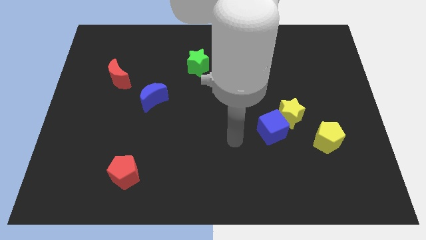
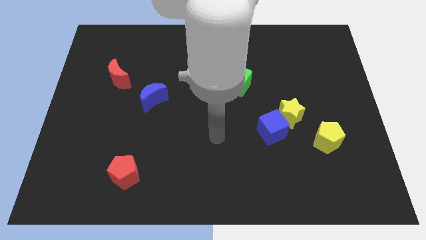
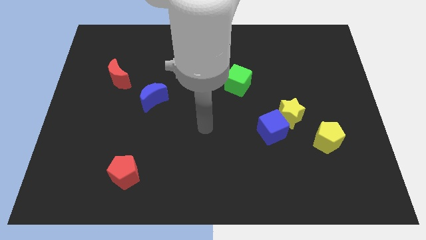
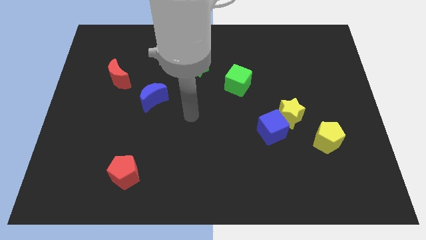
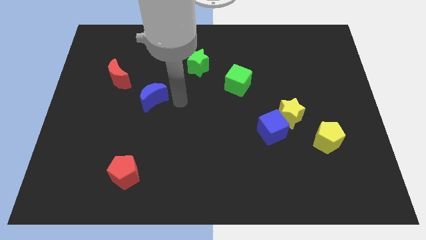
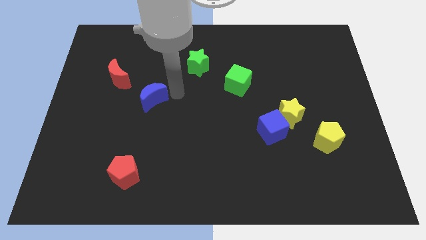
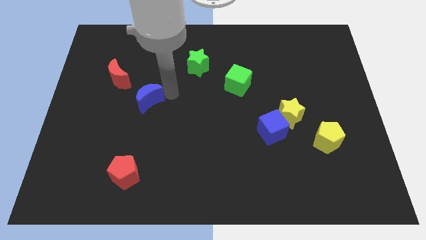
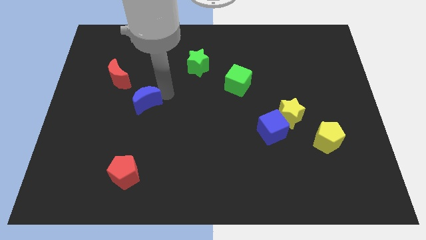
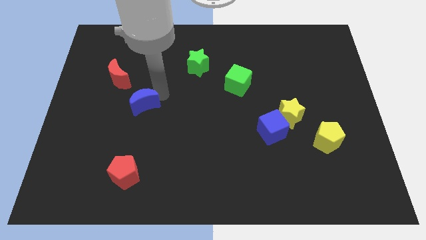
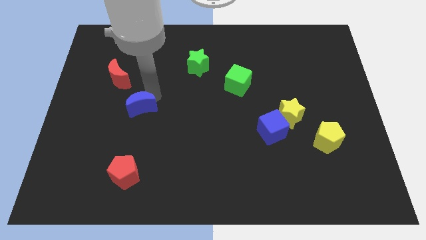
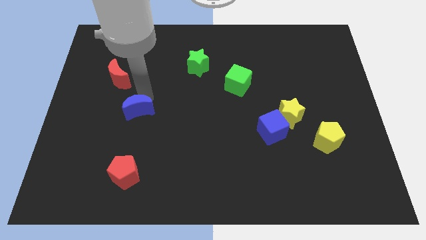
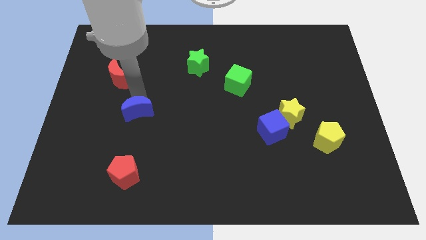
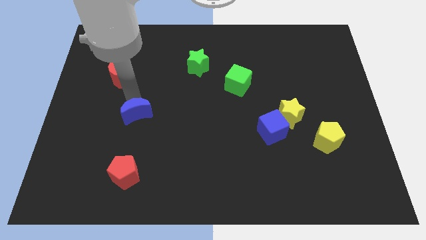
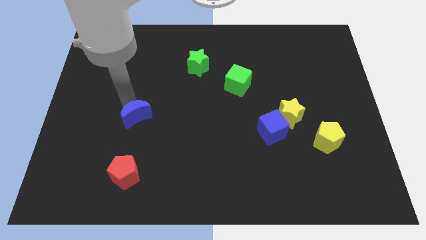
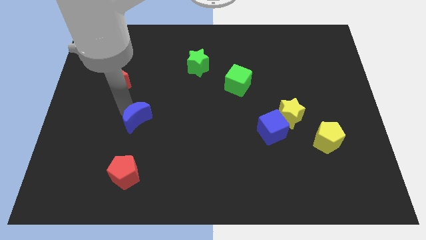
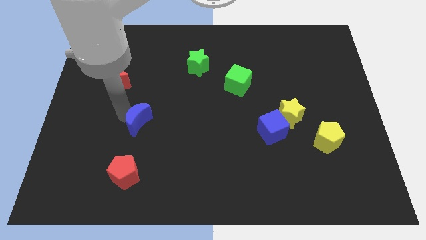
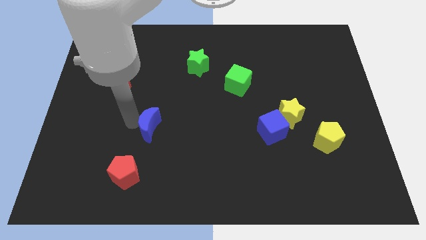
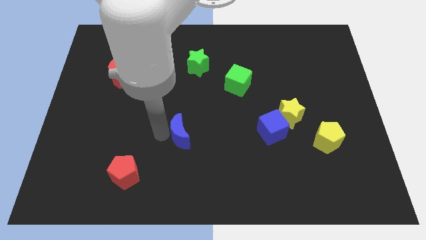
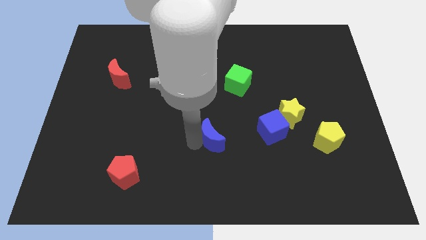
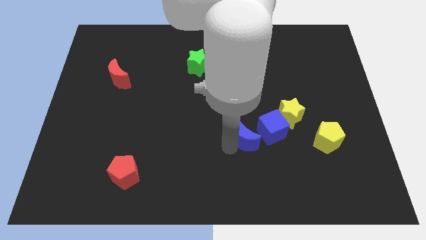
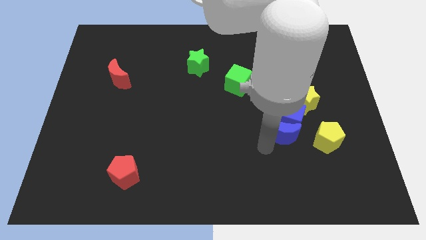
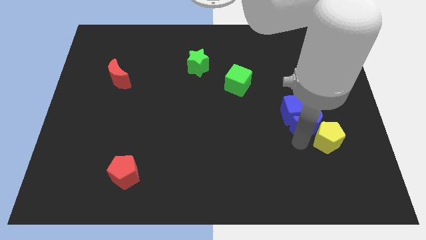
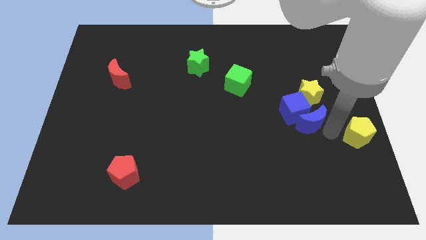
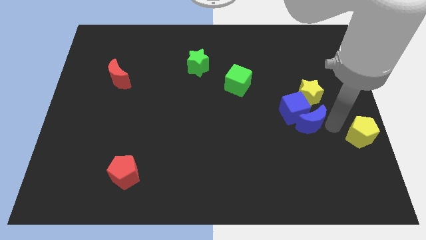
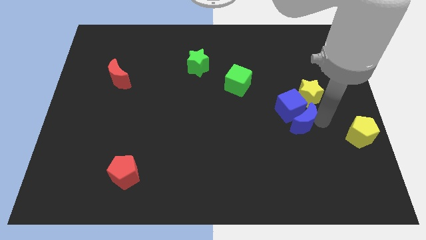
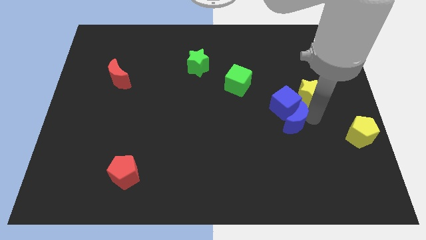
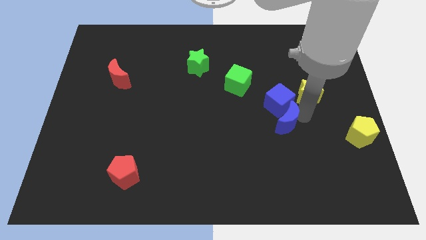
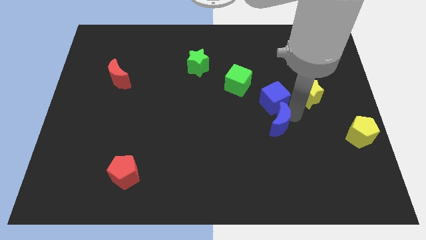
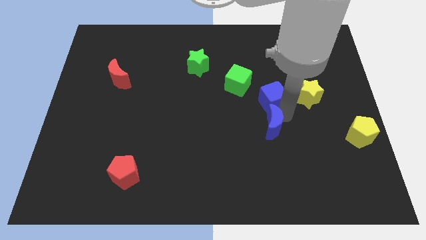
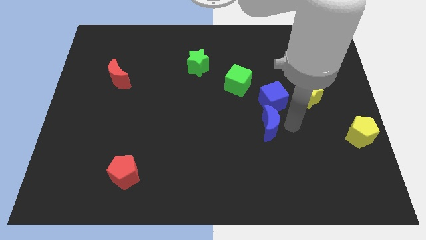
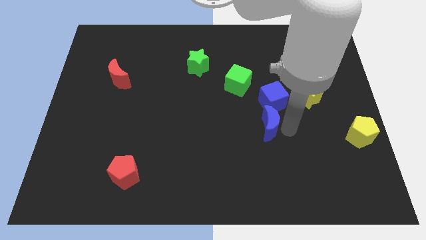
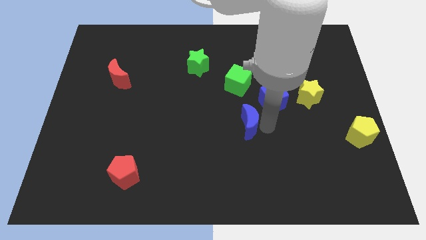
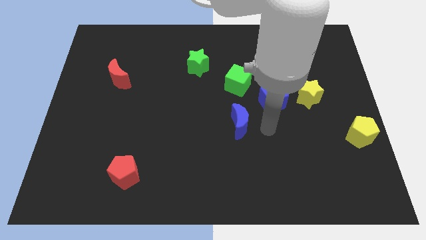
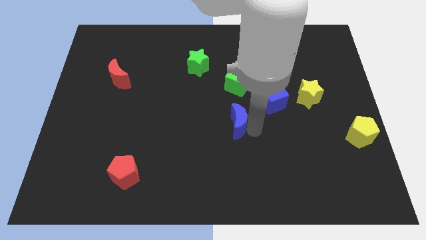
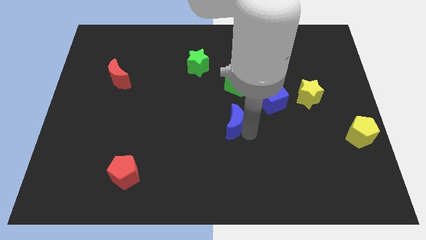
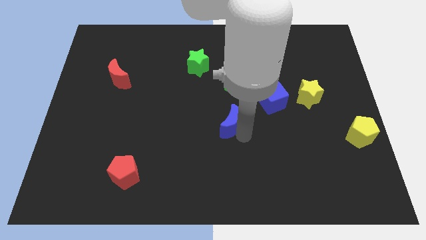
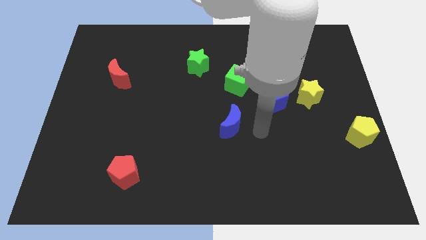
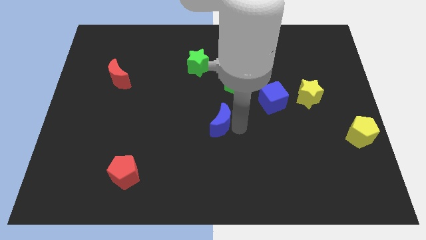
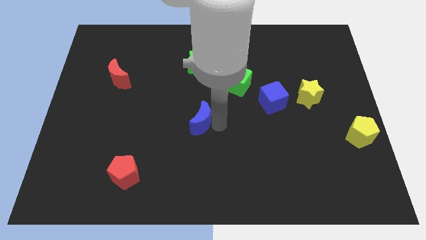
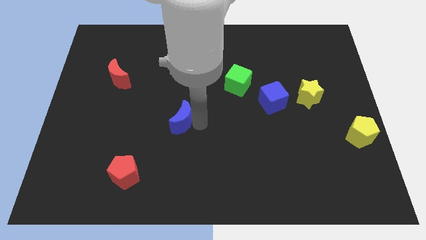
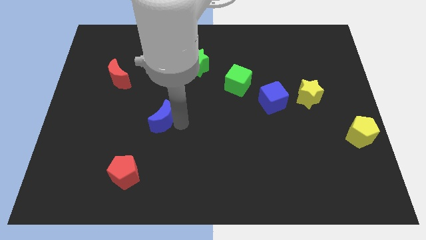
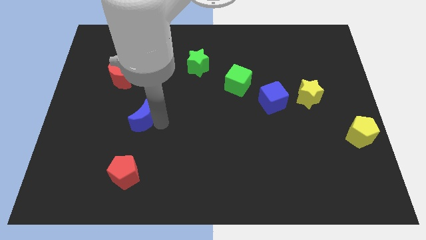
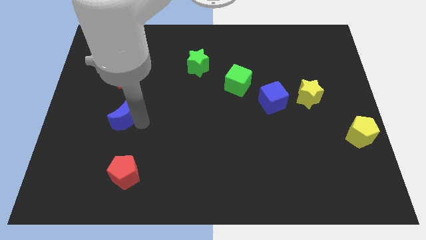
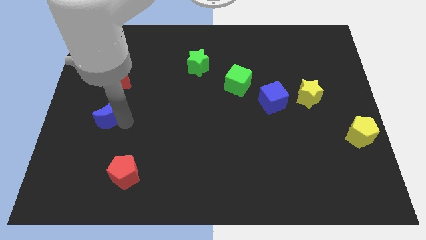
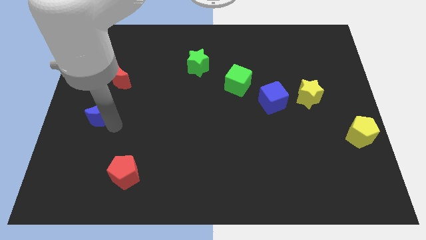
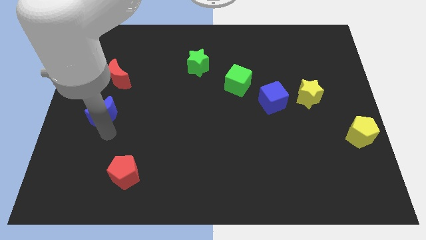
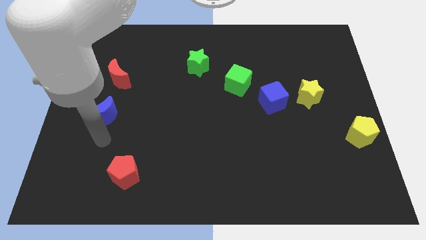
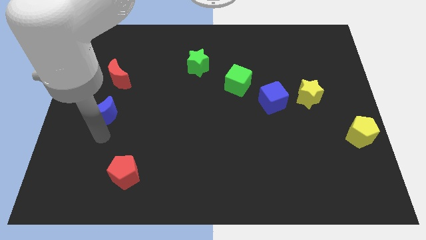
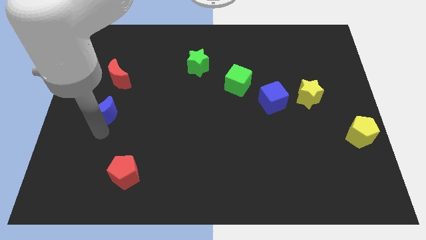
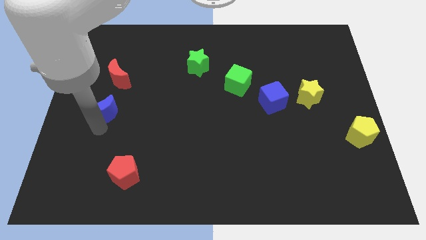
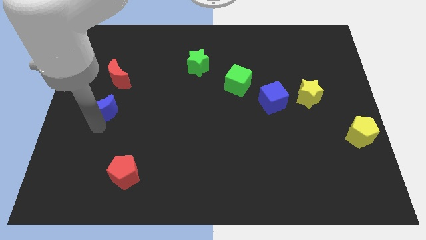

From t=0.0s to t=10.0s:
slide the blue moon to the center left

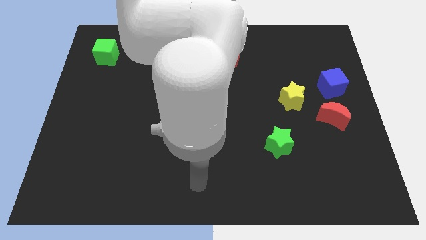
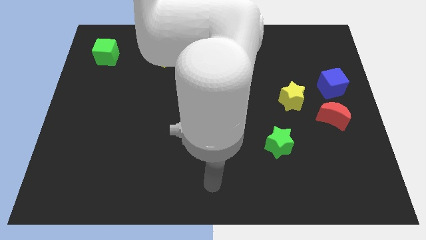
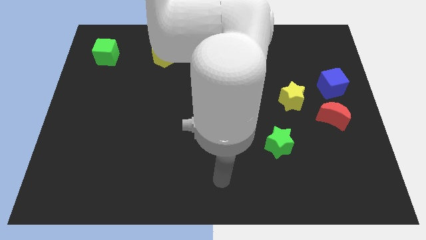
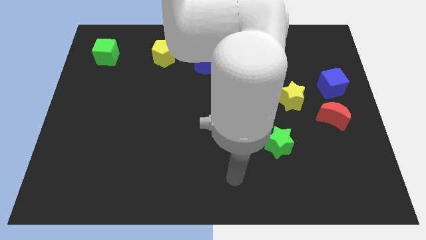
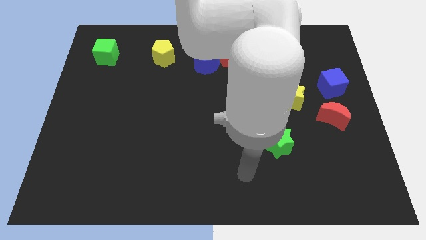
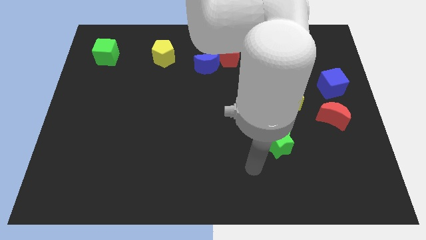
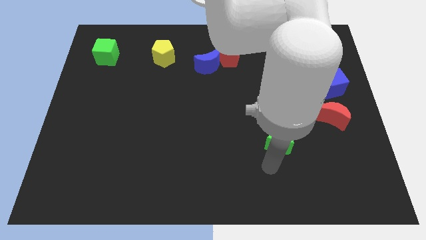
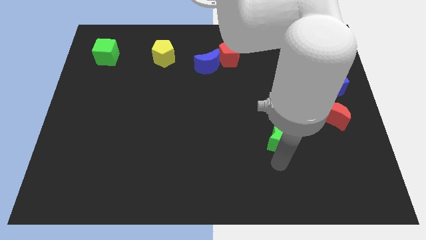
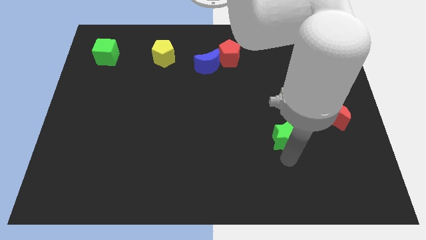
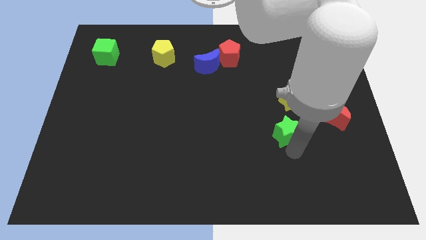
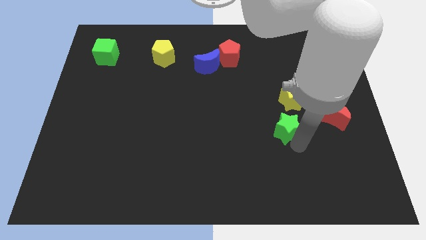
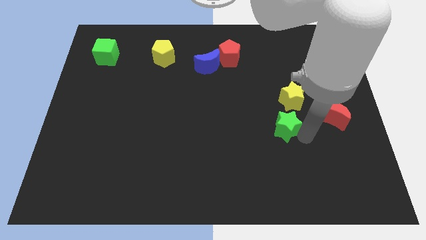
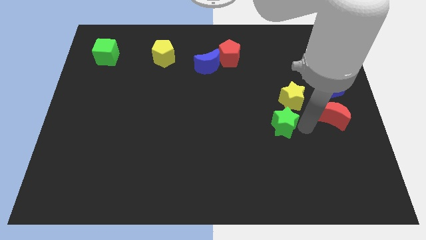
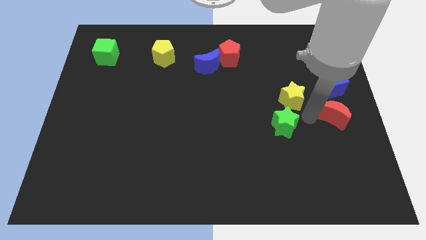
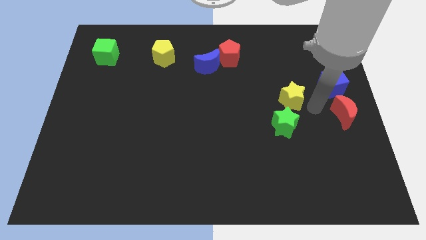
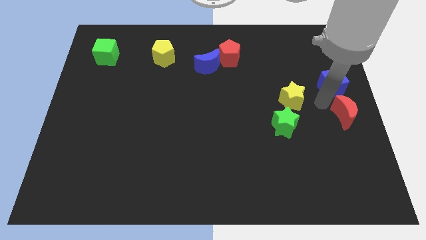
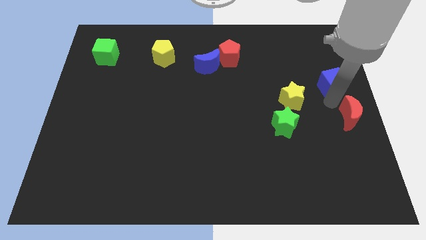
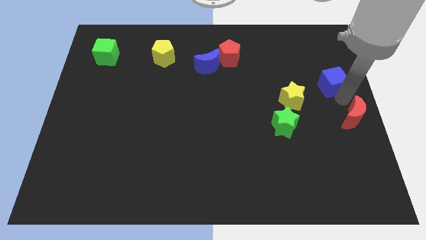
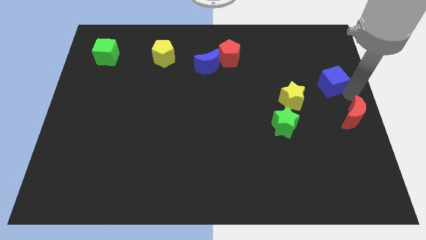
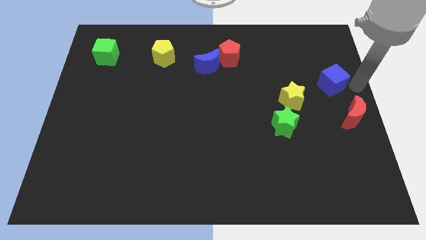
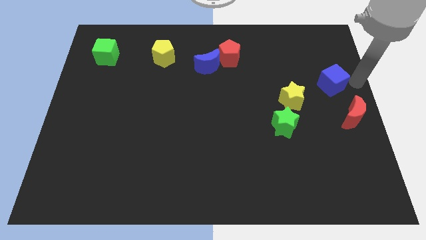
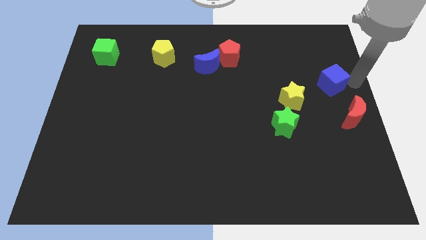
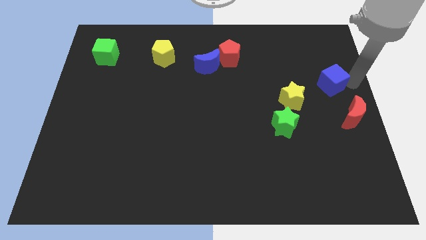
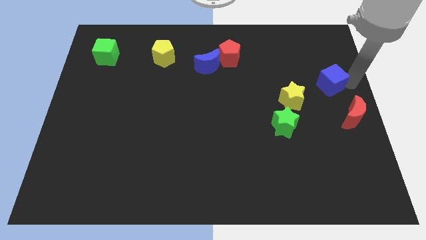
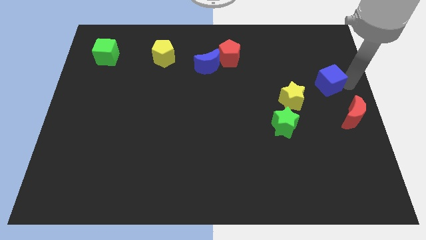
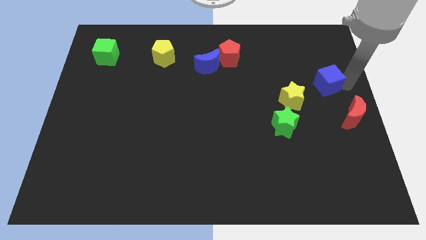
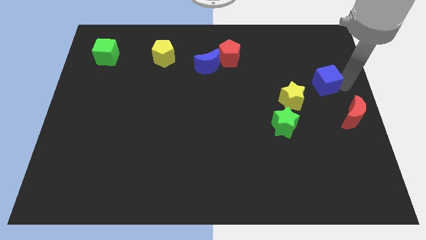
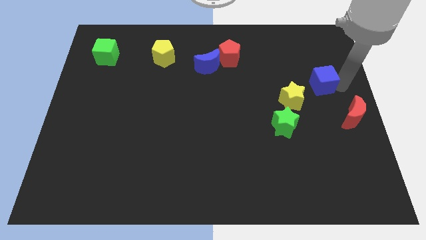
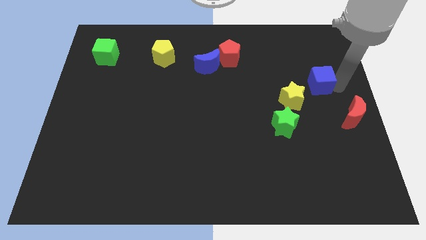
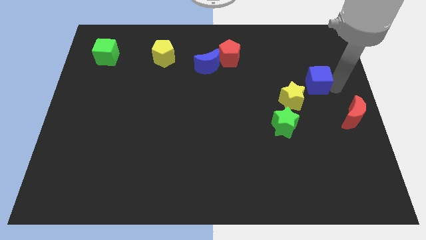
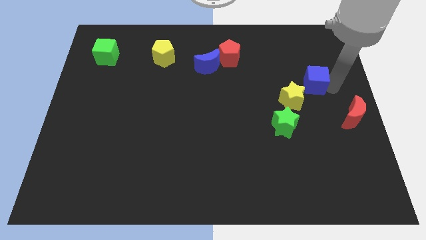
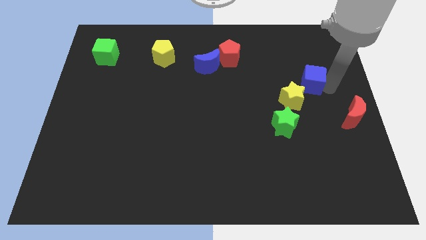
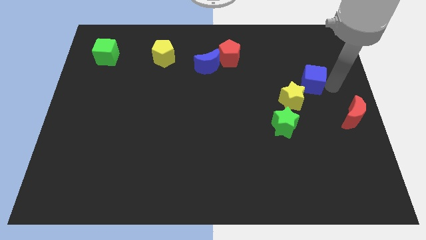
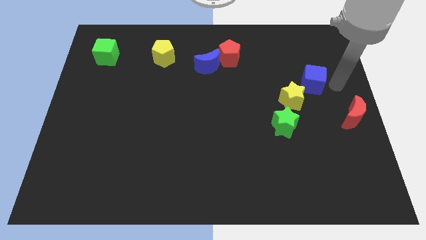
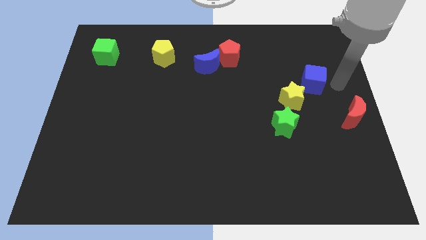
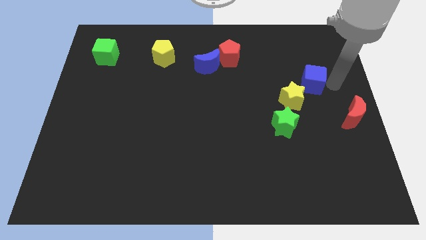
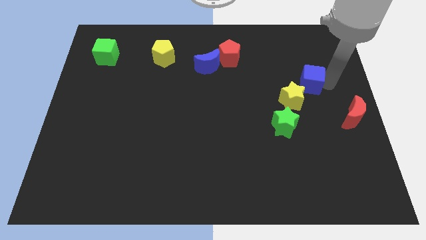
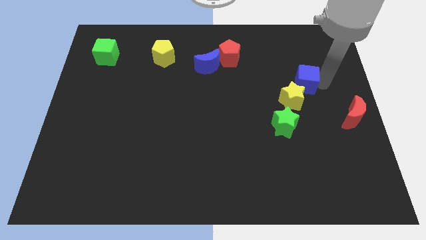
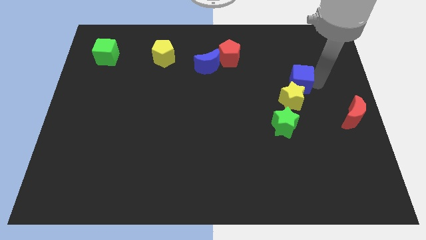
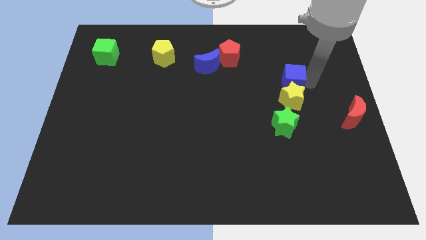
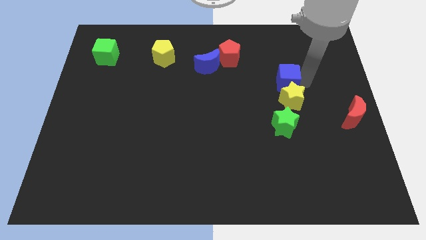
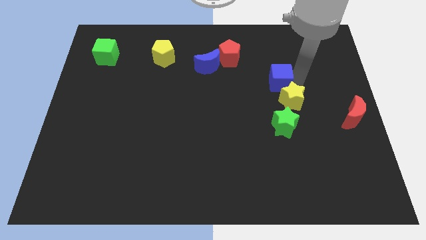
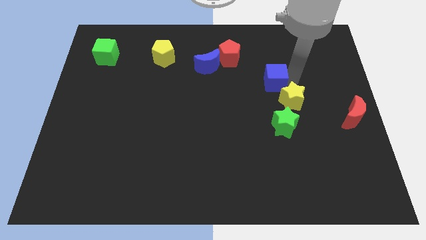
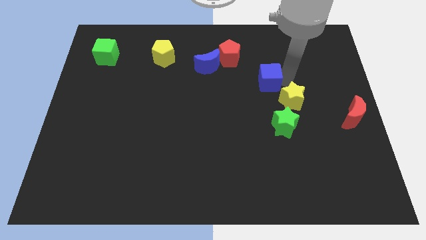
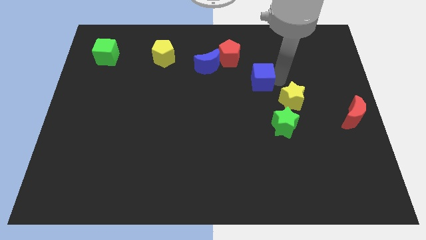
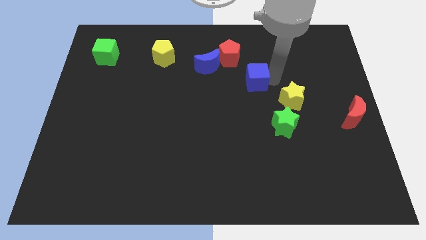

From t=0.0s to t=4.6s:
move the blue cube to the middle
